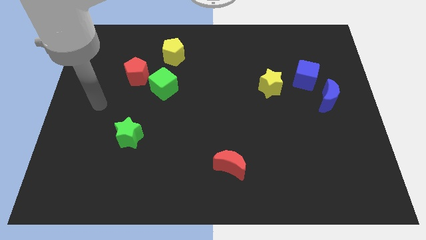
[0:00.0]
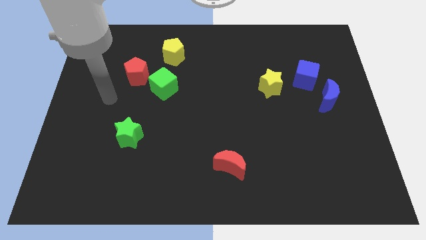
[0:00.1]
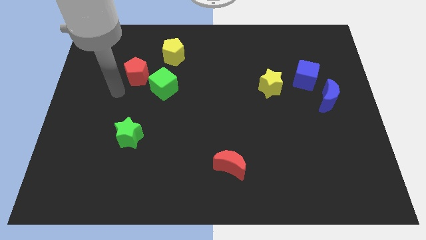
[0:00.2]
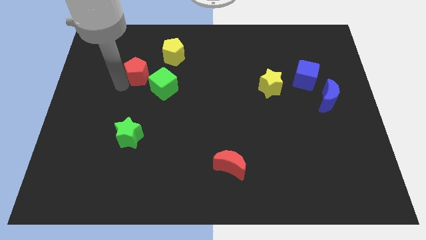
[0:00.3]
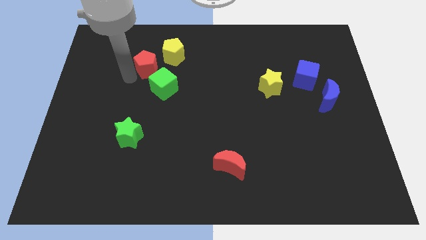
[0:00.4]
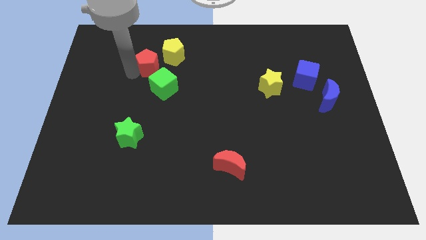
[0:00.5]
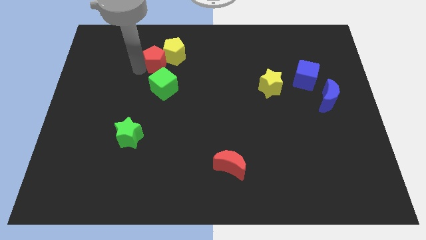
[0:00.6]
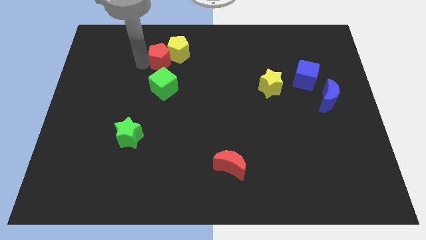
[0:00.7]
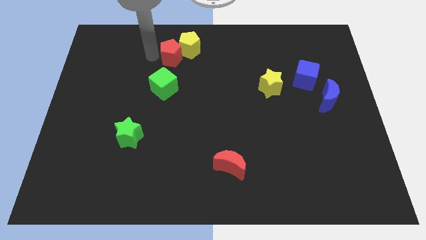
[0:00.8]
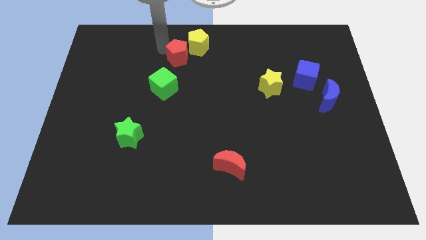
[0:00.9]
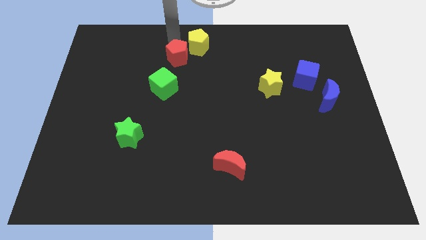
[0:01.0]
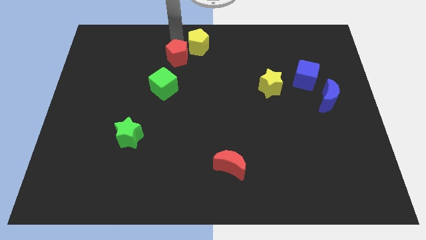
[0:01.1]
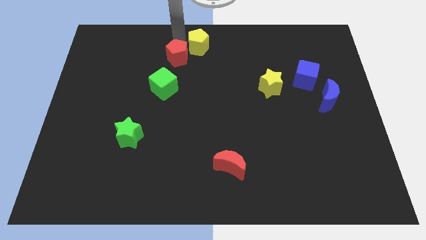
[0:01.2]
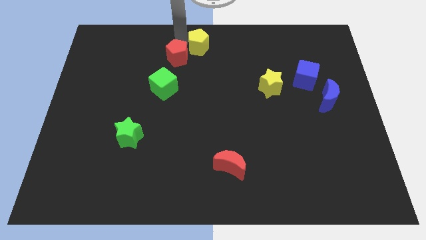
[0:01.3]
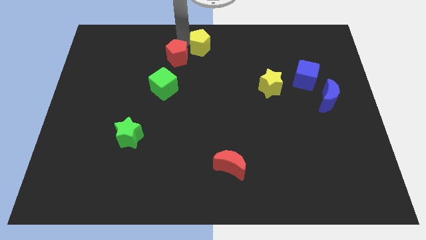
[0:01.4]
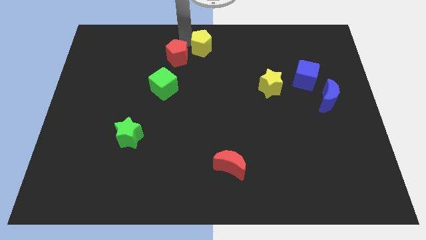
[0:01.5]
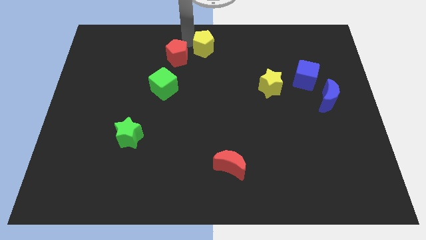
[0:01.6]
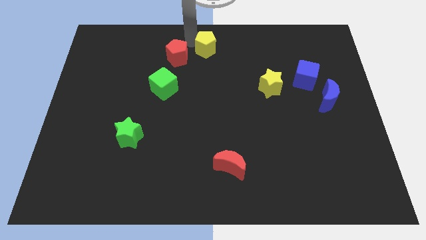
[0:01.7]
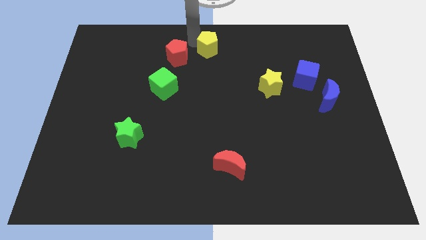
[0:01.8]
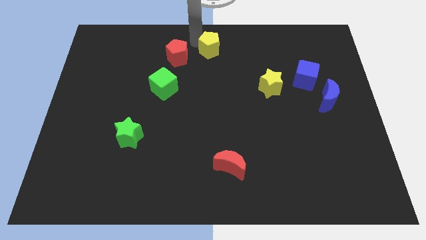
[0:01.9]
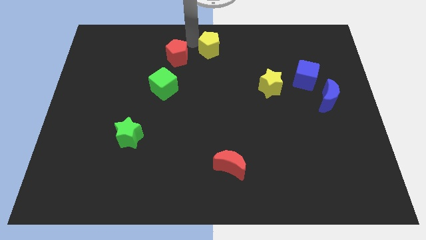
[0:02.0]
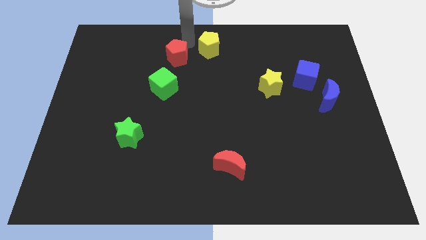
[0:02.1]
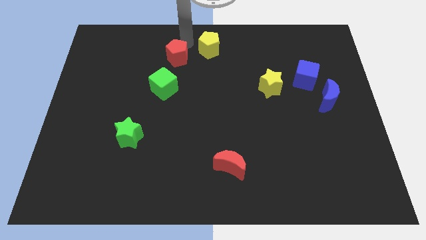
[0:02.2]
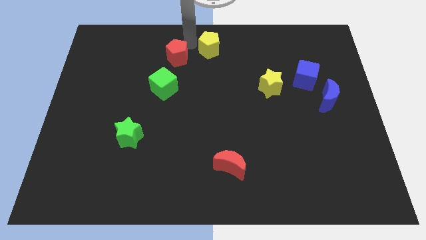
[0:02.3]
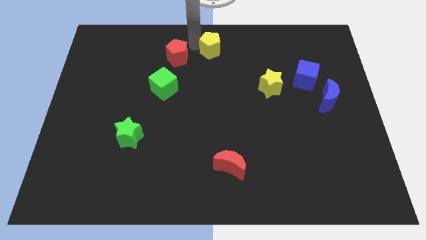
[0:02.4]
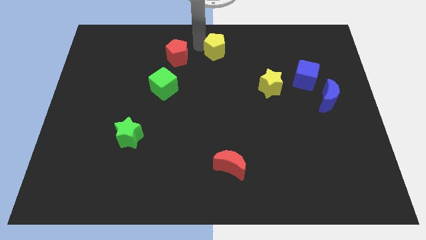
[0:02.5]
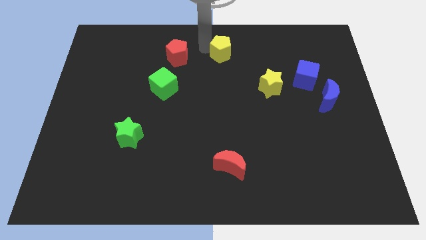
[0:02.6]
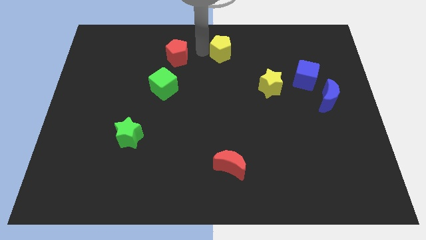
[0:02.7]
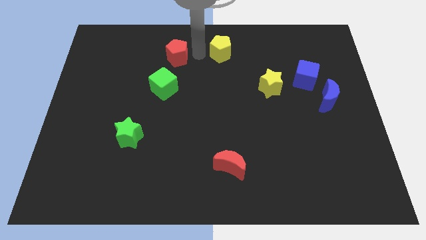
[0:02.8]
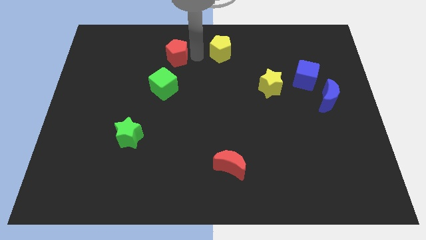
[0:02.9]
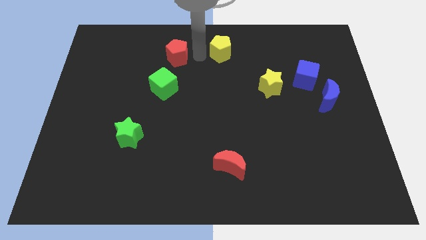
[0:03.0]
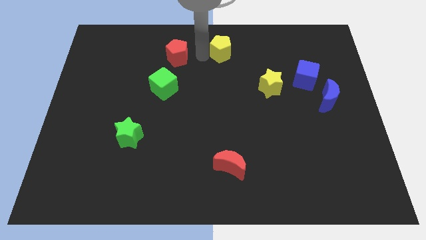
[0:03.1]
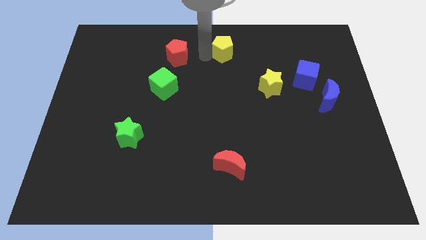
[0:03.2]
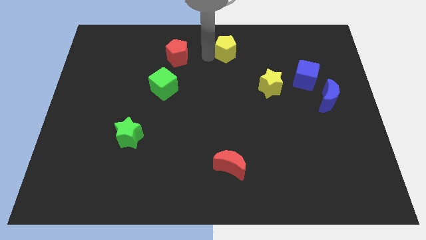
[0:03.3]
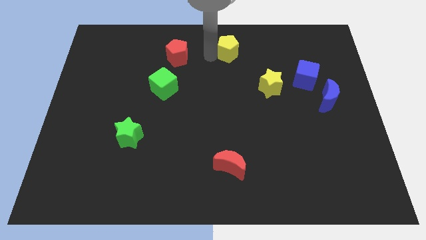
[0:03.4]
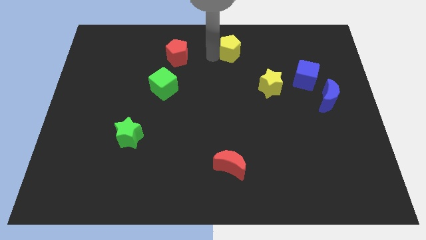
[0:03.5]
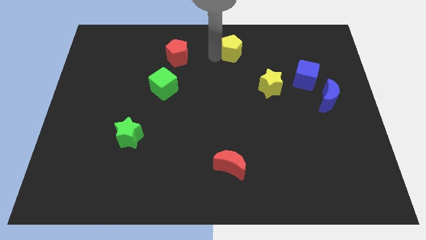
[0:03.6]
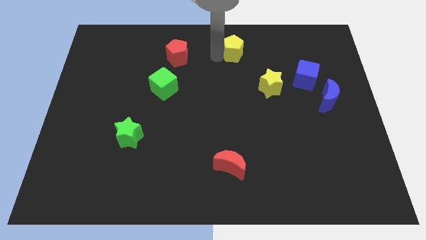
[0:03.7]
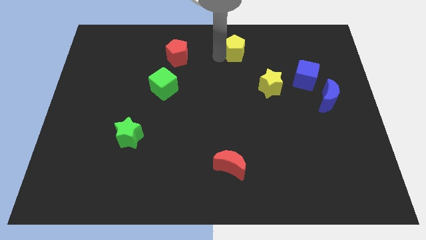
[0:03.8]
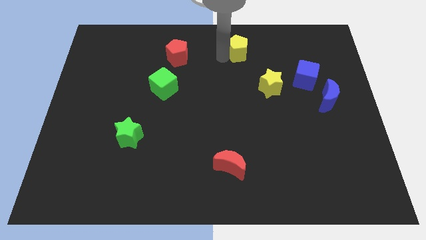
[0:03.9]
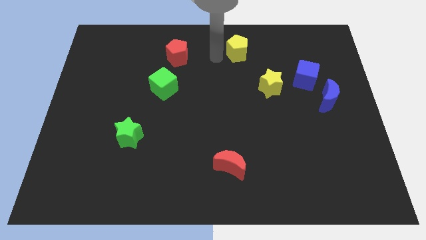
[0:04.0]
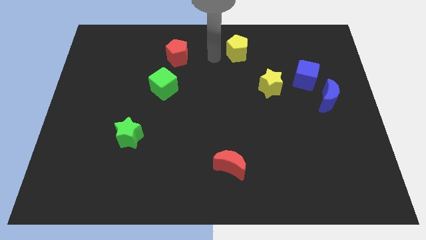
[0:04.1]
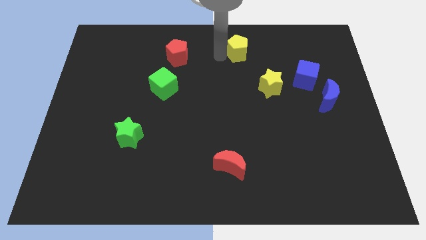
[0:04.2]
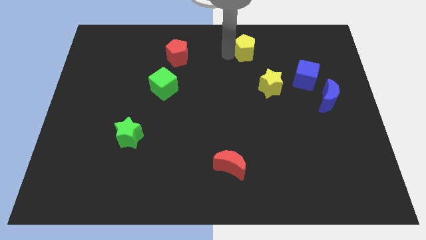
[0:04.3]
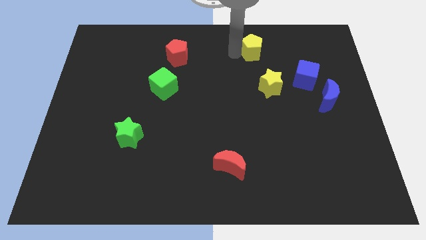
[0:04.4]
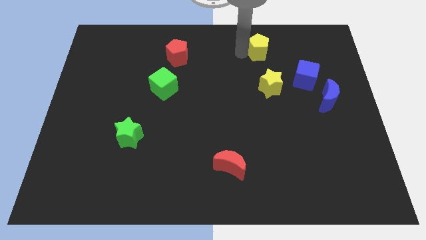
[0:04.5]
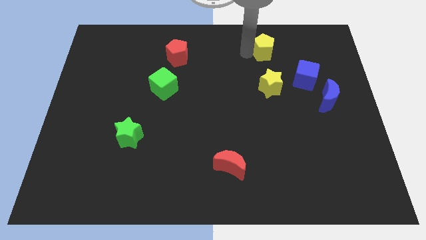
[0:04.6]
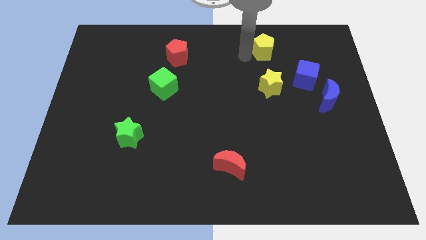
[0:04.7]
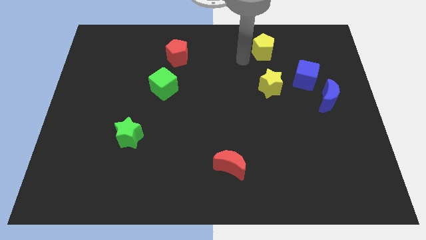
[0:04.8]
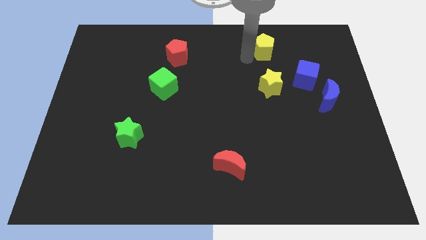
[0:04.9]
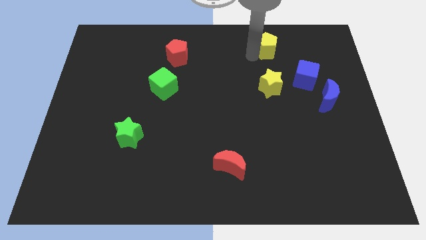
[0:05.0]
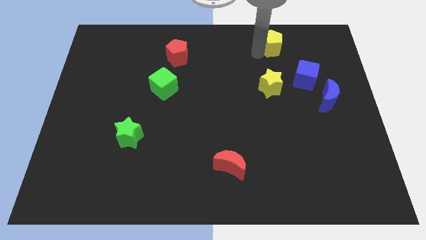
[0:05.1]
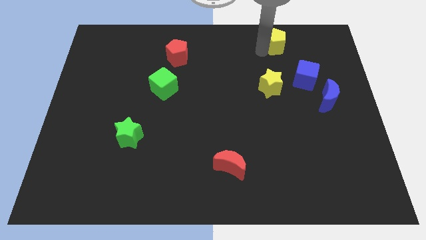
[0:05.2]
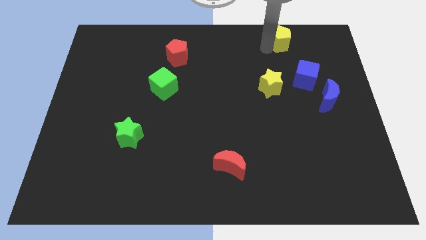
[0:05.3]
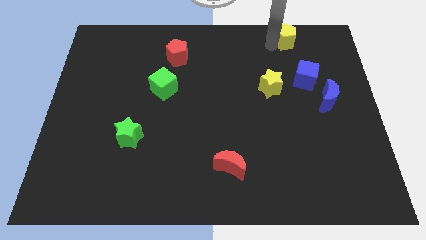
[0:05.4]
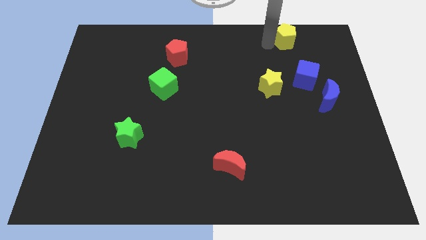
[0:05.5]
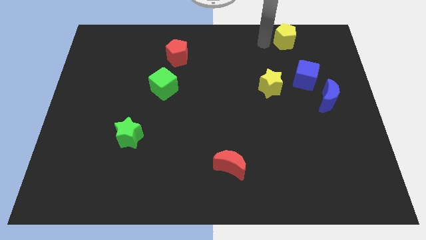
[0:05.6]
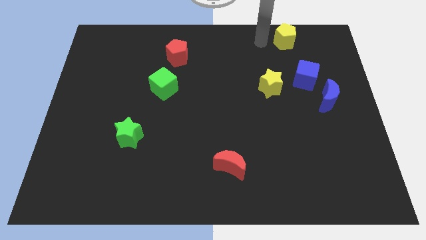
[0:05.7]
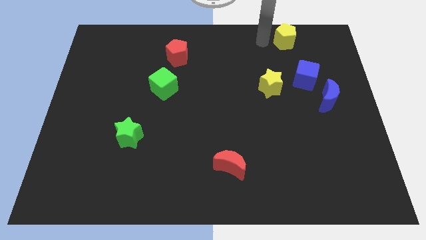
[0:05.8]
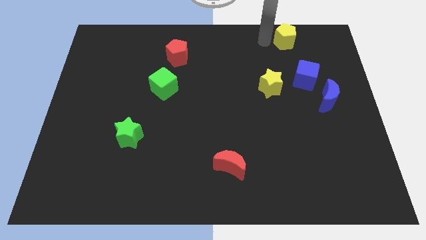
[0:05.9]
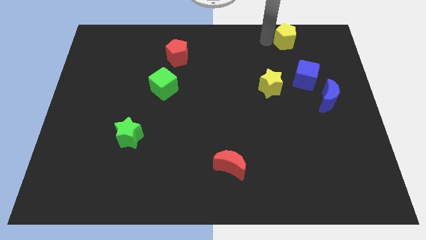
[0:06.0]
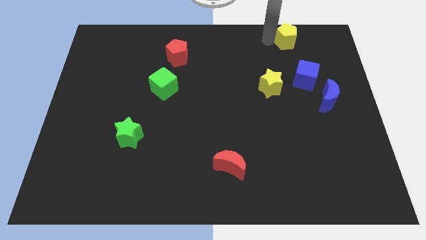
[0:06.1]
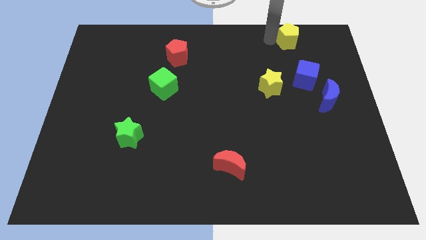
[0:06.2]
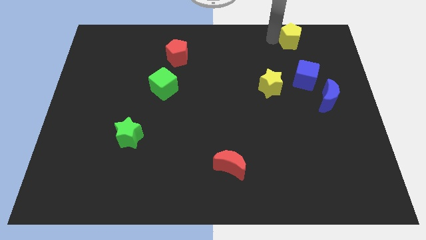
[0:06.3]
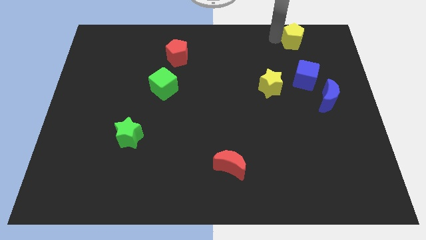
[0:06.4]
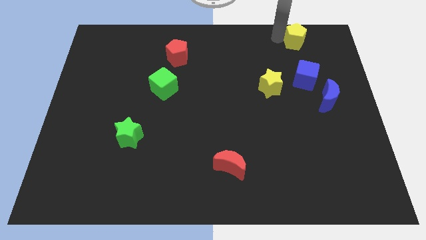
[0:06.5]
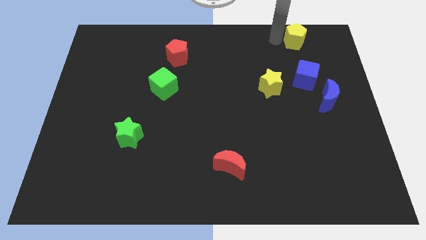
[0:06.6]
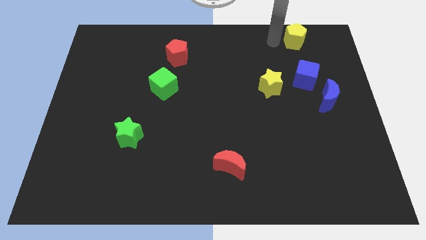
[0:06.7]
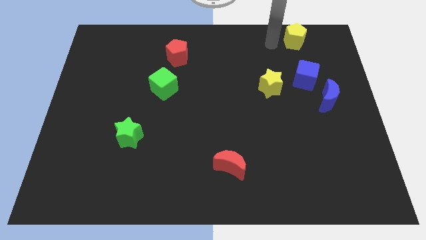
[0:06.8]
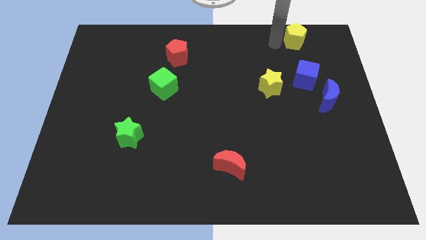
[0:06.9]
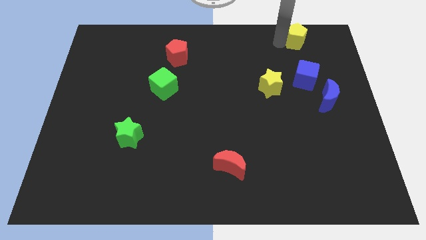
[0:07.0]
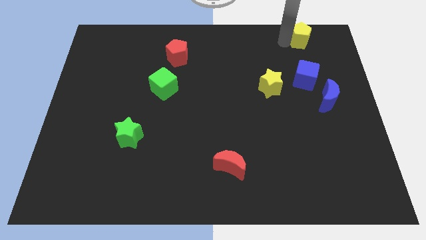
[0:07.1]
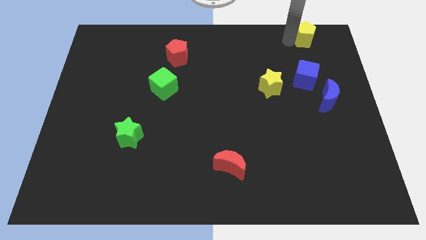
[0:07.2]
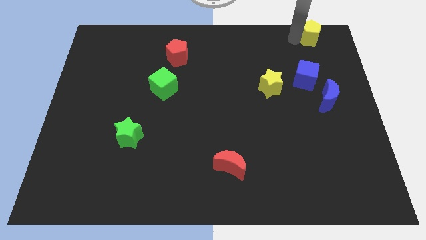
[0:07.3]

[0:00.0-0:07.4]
move the yellow pentagon to the top right
